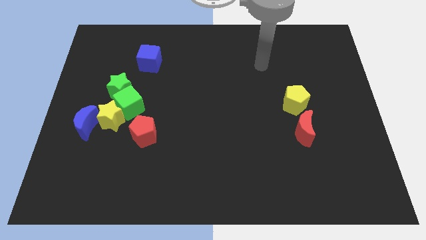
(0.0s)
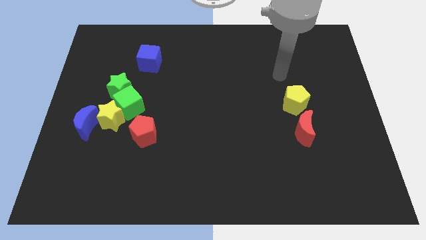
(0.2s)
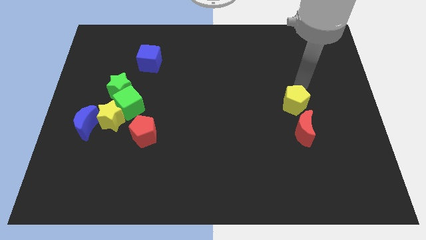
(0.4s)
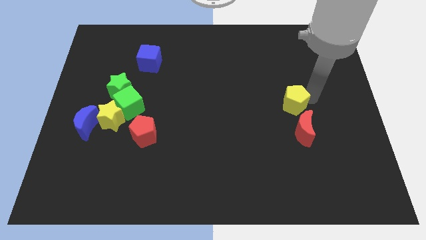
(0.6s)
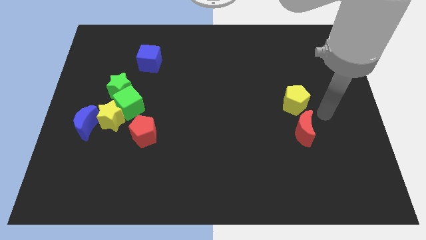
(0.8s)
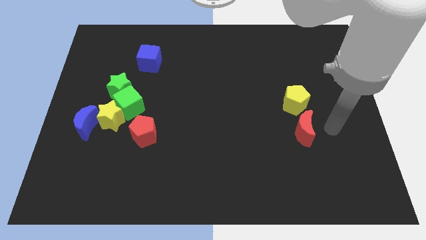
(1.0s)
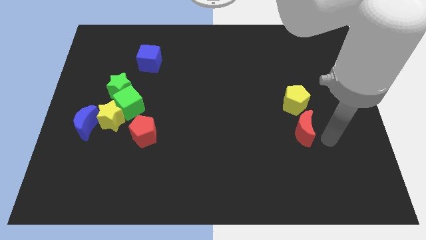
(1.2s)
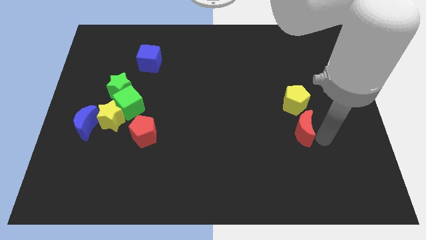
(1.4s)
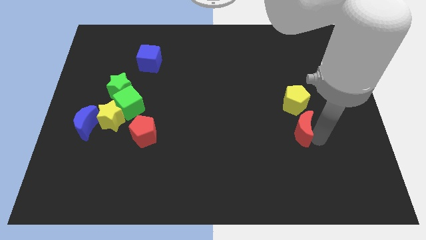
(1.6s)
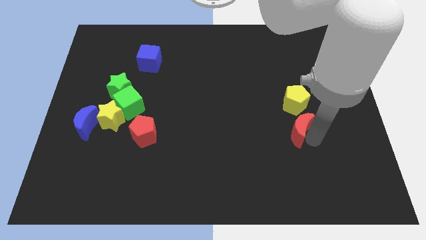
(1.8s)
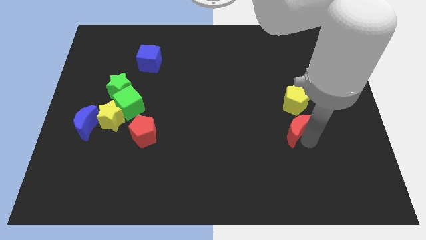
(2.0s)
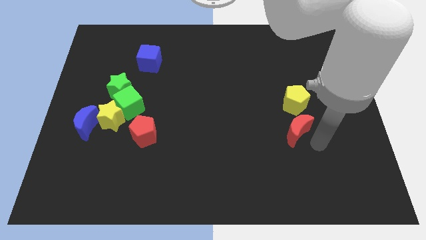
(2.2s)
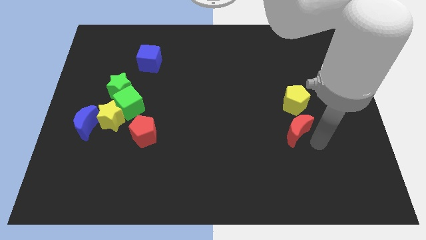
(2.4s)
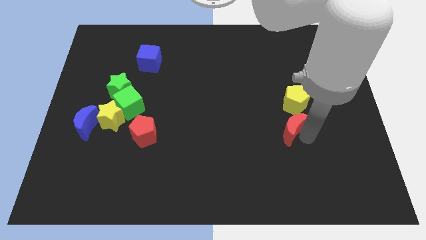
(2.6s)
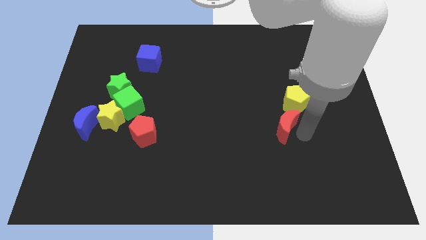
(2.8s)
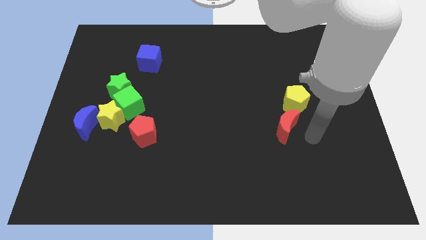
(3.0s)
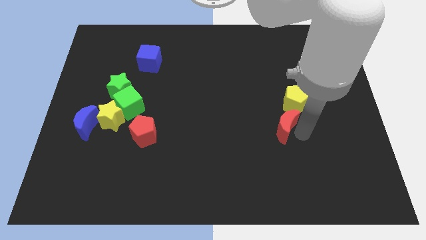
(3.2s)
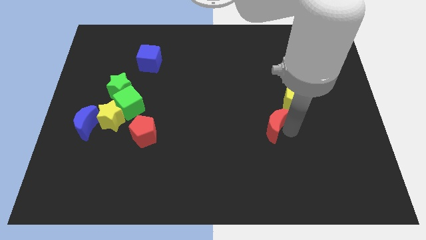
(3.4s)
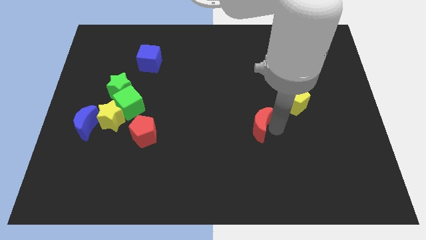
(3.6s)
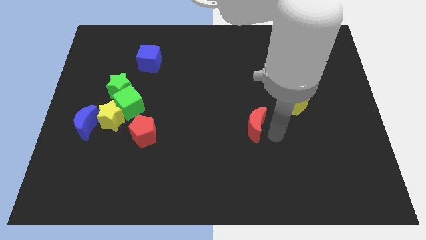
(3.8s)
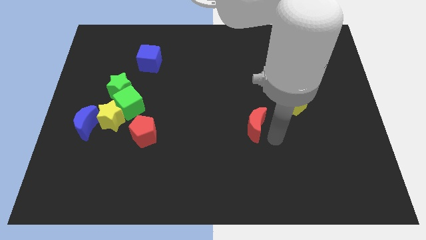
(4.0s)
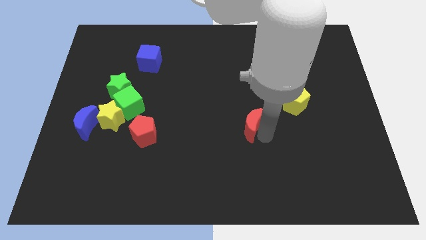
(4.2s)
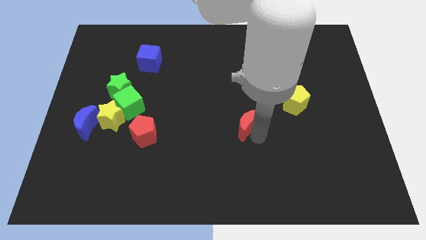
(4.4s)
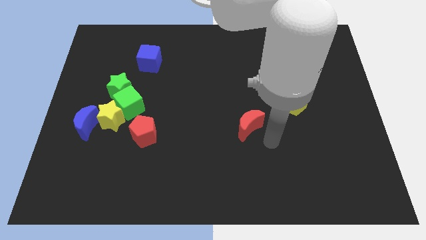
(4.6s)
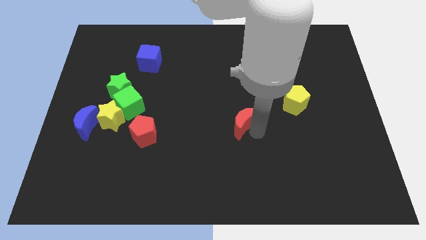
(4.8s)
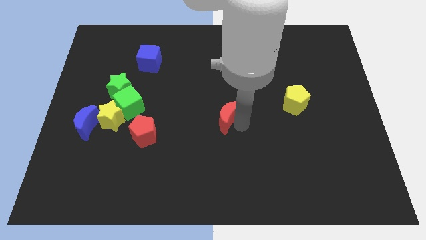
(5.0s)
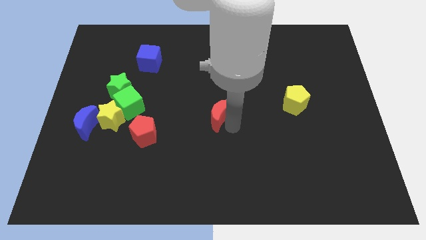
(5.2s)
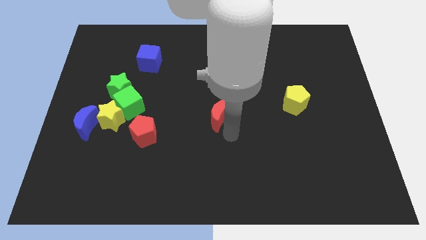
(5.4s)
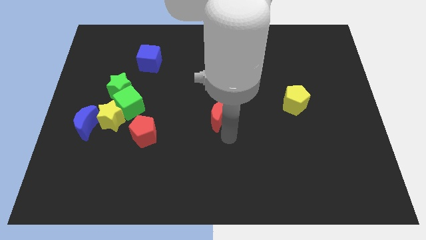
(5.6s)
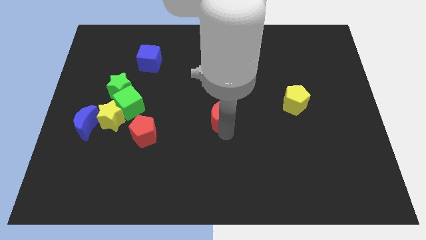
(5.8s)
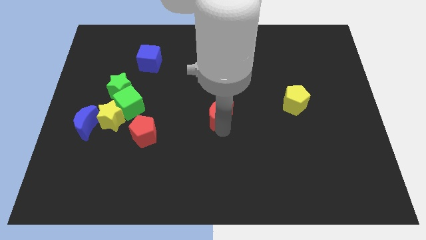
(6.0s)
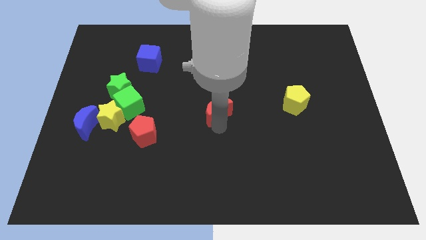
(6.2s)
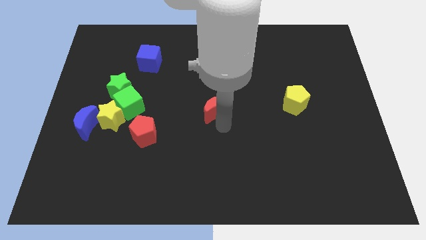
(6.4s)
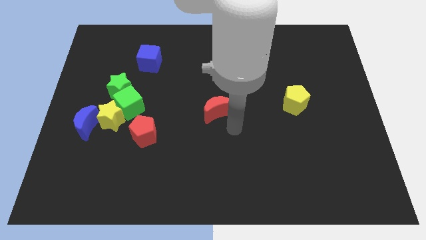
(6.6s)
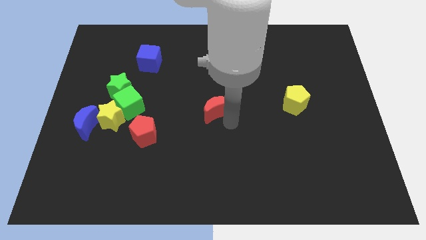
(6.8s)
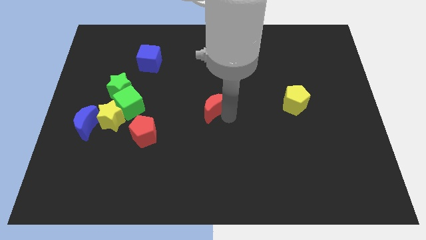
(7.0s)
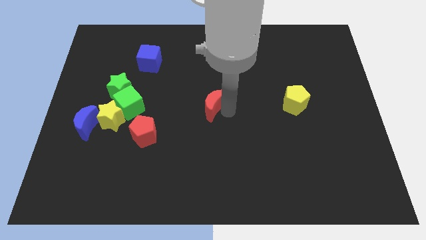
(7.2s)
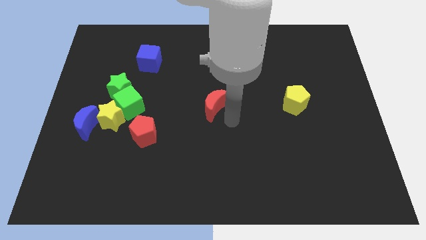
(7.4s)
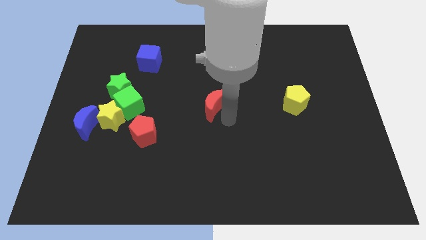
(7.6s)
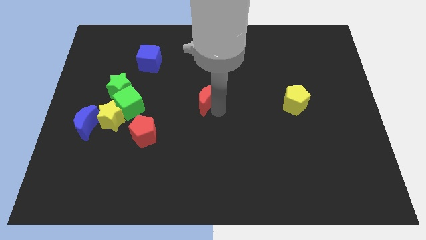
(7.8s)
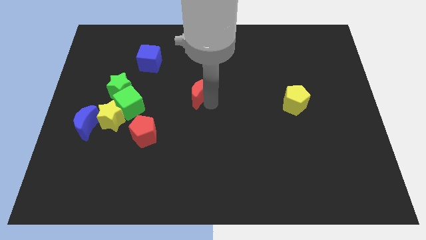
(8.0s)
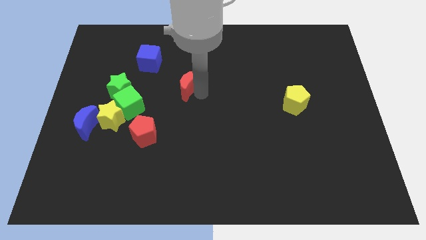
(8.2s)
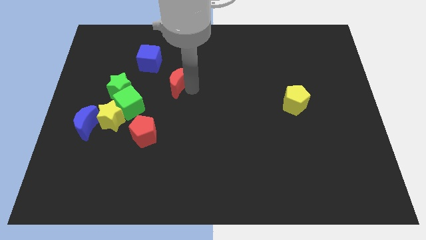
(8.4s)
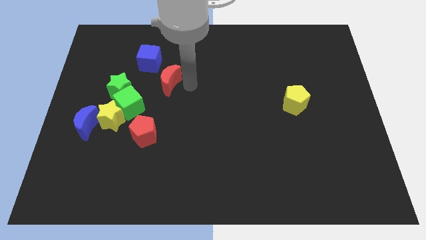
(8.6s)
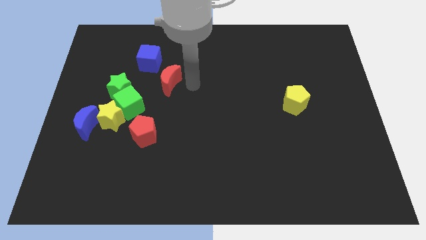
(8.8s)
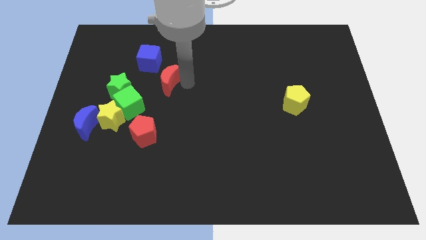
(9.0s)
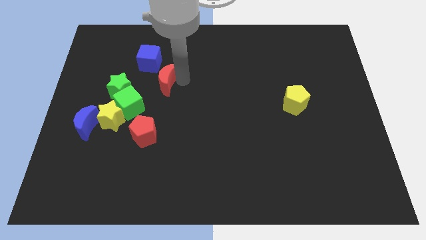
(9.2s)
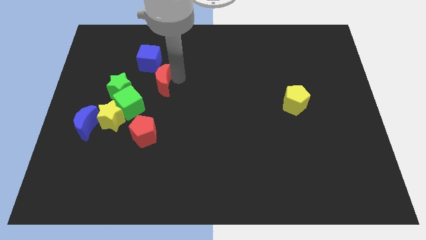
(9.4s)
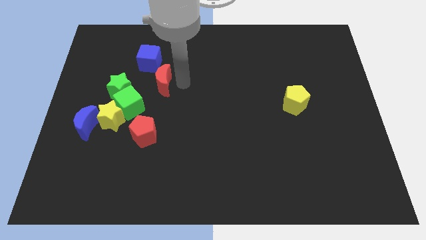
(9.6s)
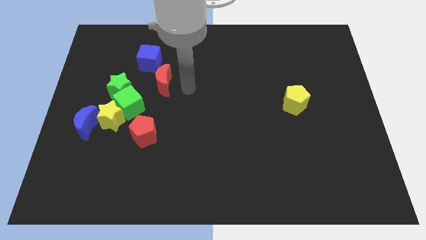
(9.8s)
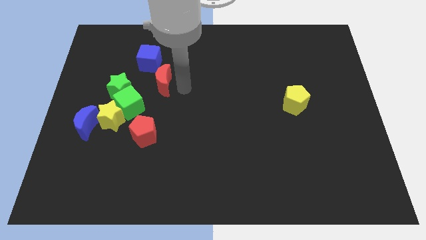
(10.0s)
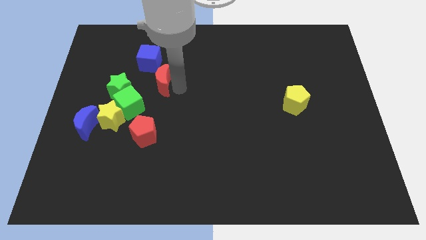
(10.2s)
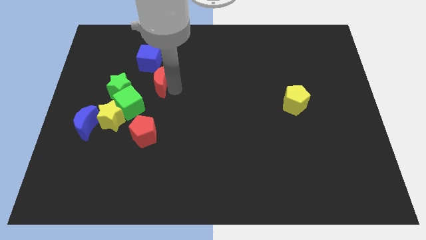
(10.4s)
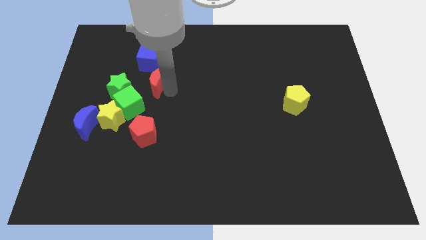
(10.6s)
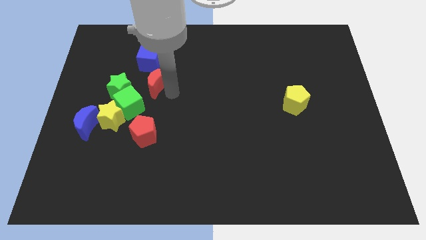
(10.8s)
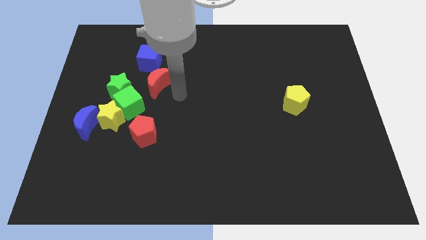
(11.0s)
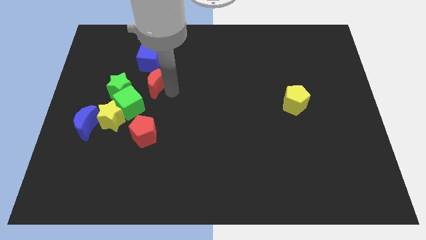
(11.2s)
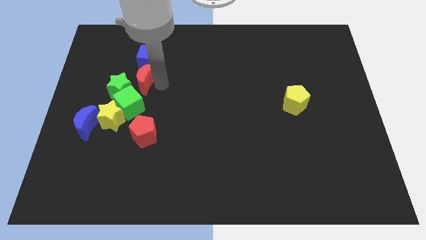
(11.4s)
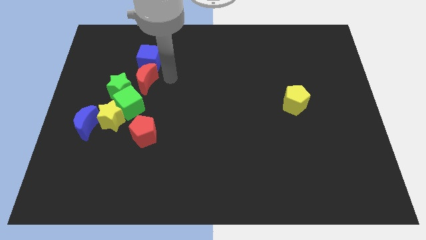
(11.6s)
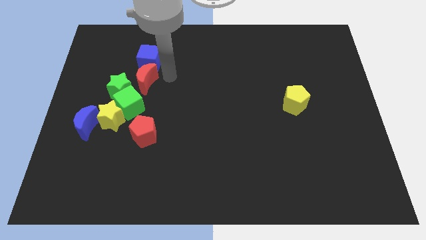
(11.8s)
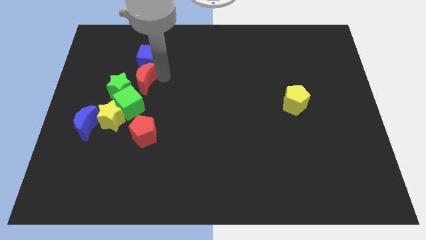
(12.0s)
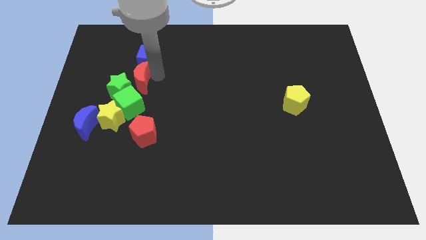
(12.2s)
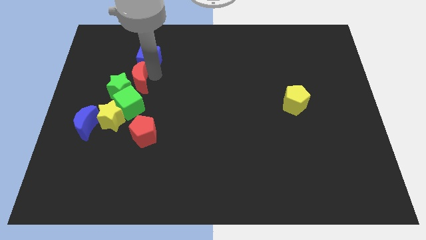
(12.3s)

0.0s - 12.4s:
slide the red moon to the top side of the yellow star
